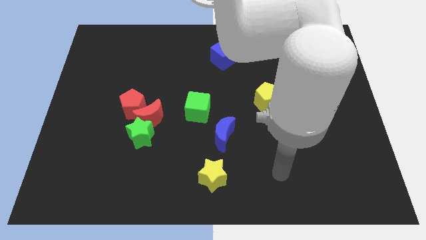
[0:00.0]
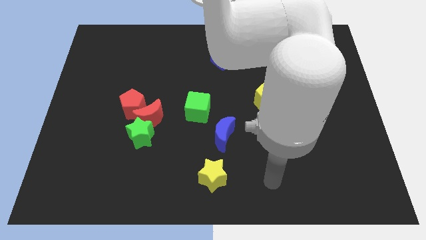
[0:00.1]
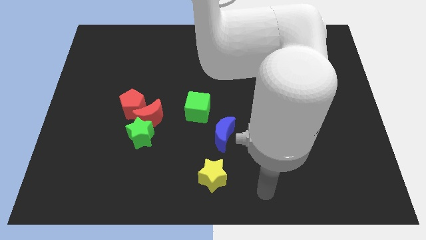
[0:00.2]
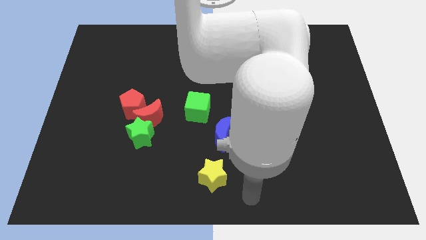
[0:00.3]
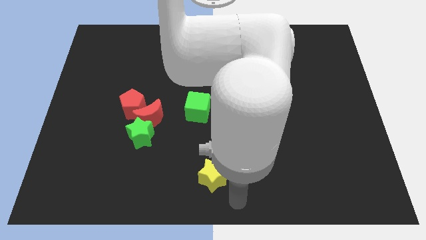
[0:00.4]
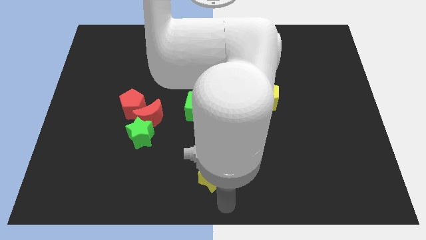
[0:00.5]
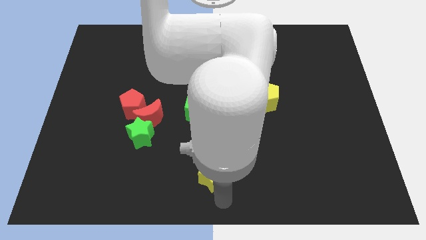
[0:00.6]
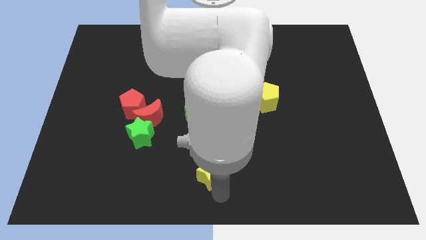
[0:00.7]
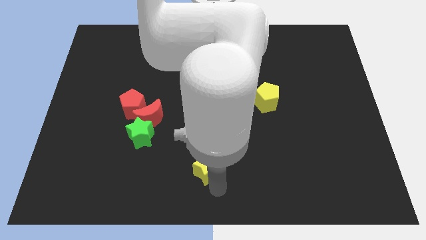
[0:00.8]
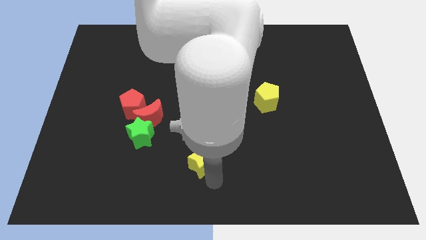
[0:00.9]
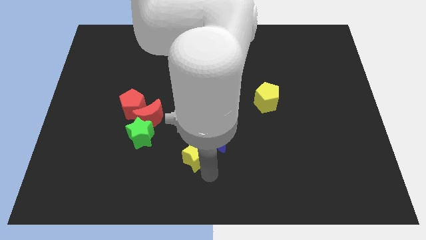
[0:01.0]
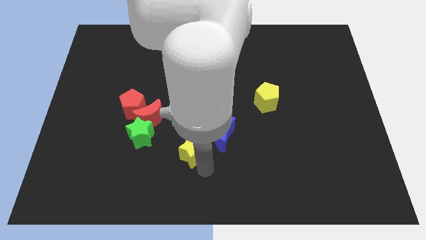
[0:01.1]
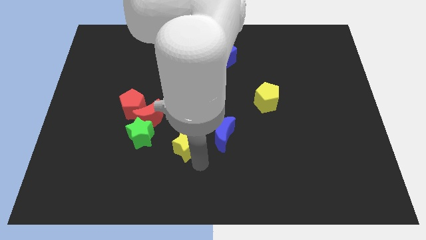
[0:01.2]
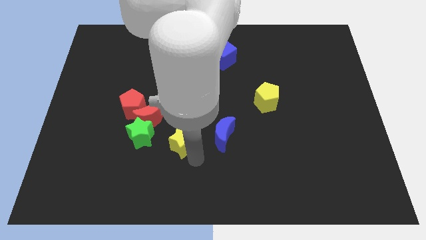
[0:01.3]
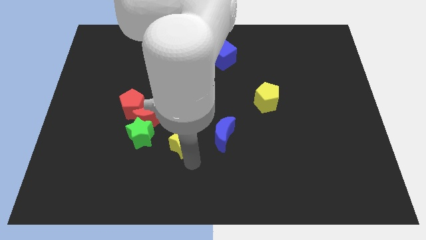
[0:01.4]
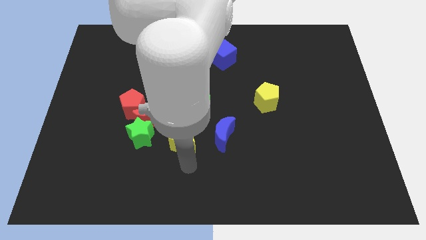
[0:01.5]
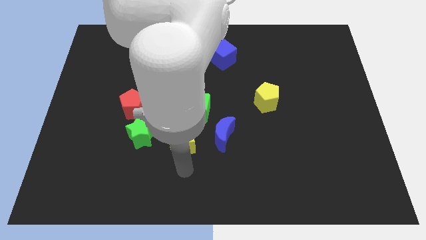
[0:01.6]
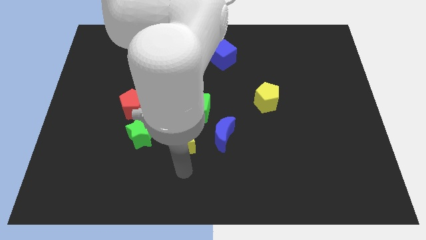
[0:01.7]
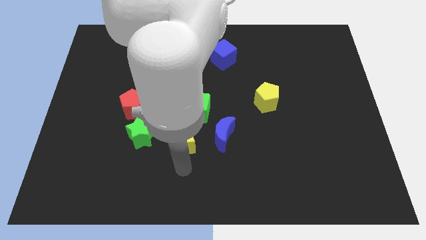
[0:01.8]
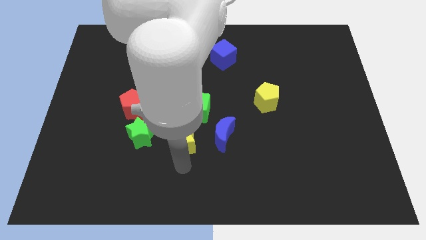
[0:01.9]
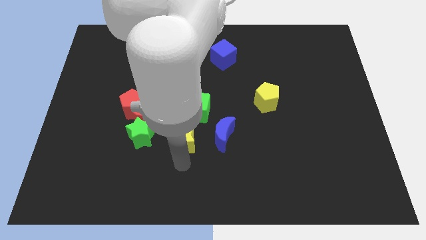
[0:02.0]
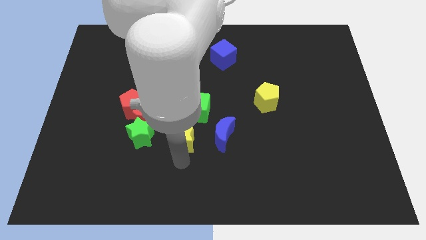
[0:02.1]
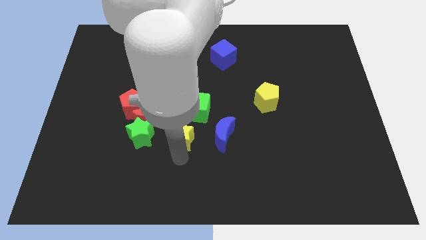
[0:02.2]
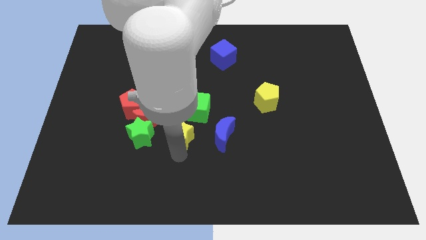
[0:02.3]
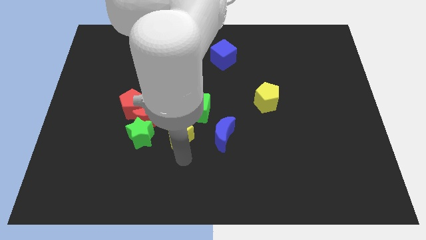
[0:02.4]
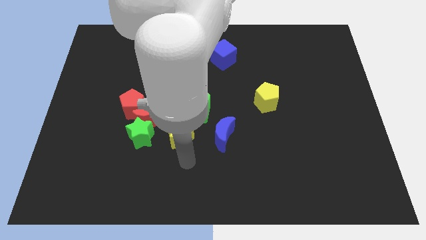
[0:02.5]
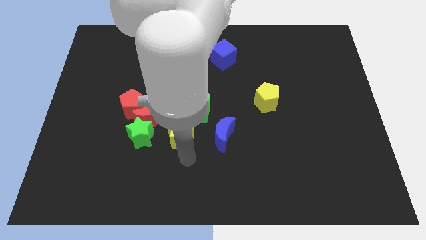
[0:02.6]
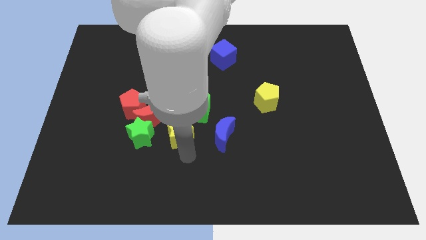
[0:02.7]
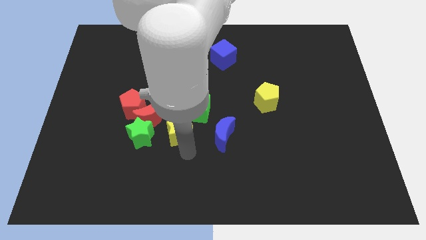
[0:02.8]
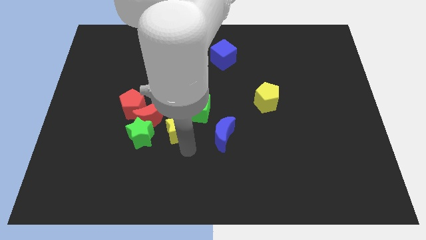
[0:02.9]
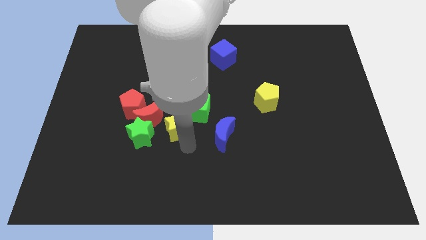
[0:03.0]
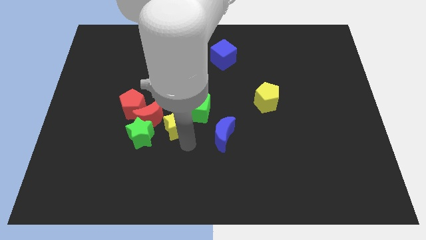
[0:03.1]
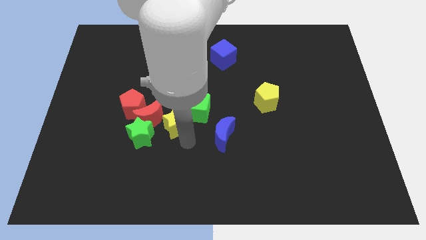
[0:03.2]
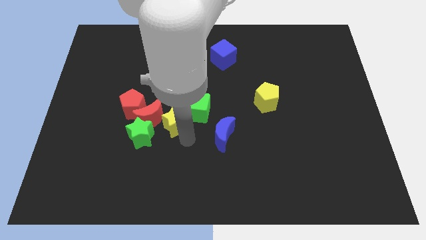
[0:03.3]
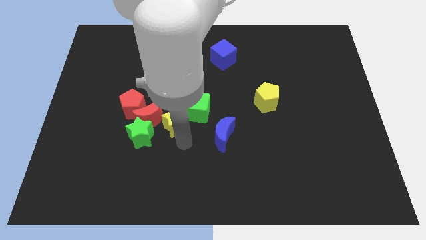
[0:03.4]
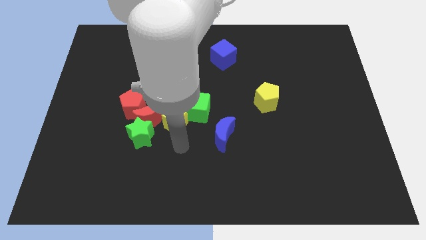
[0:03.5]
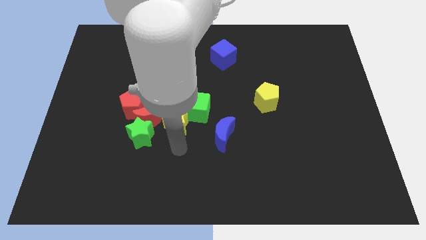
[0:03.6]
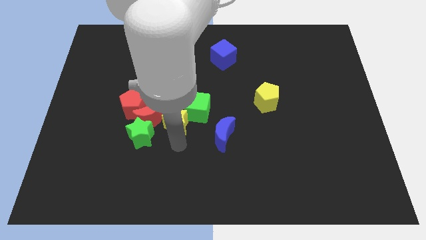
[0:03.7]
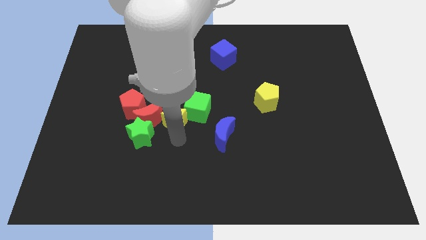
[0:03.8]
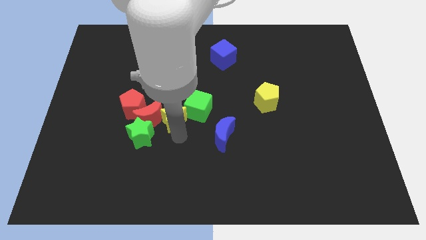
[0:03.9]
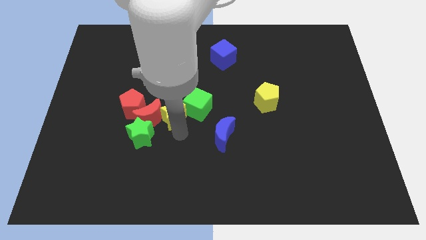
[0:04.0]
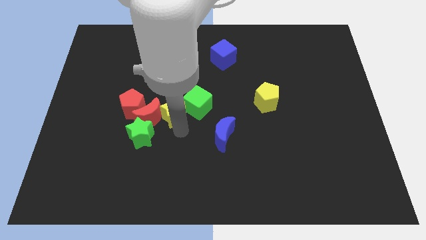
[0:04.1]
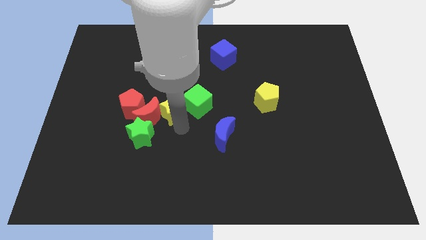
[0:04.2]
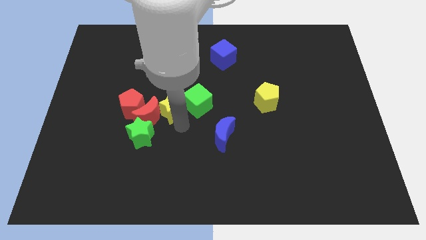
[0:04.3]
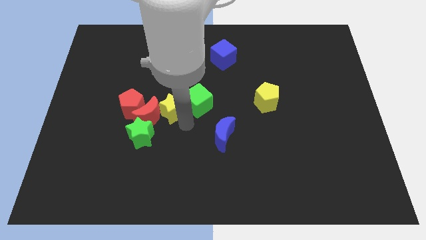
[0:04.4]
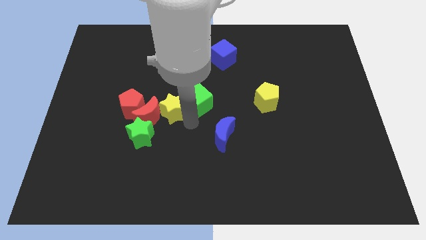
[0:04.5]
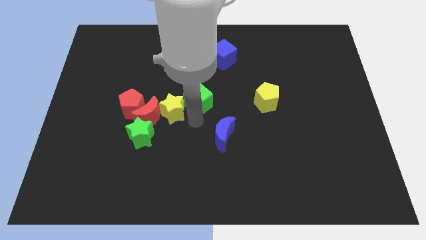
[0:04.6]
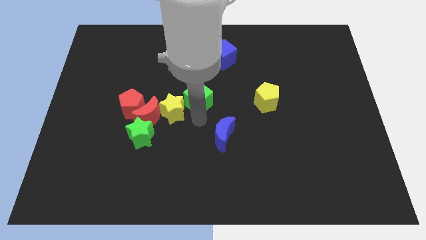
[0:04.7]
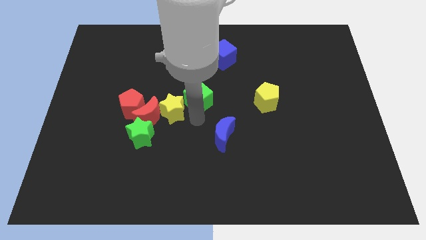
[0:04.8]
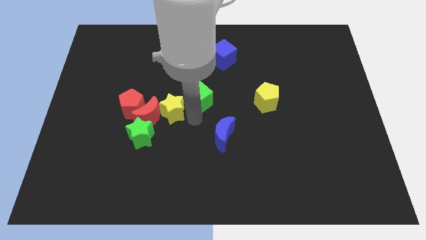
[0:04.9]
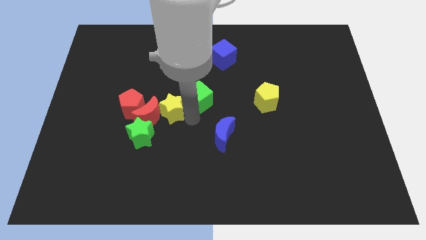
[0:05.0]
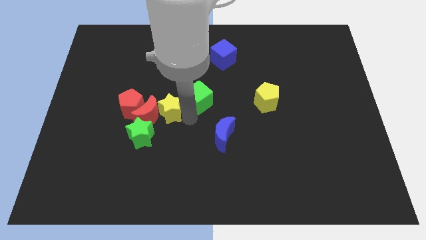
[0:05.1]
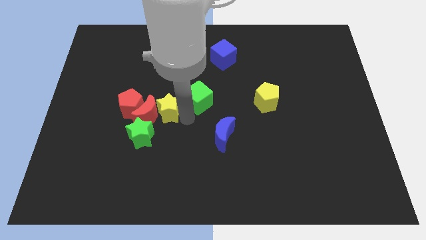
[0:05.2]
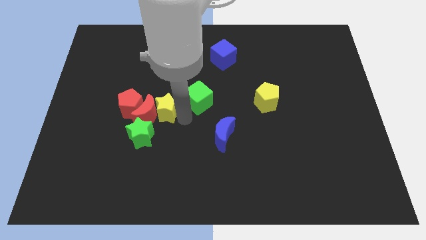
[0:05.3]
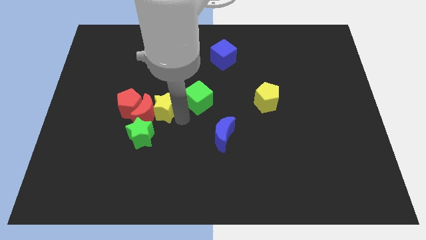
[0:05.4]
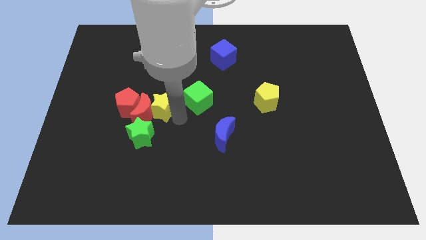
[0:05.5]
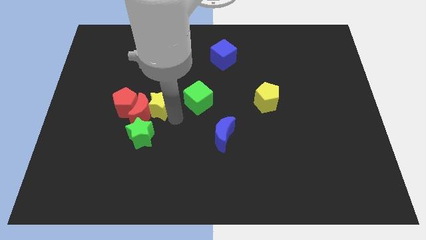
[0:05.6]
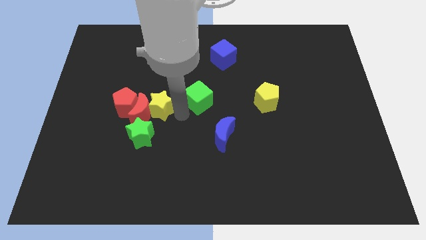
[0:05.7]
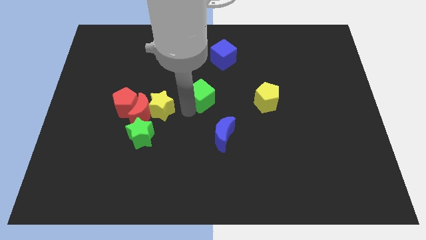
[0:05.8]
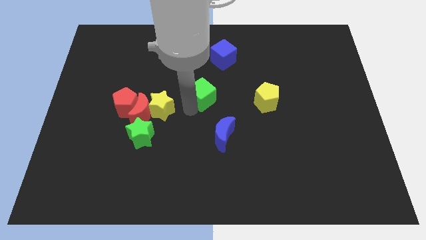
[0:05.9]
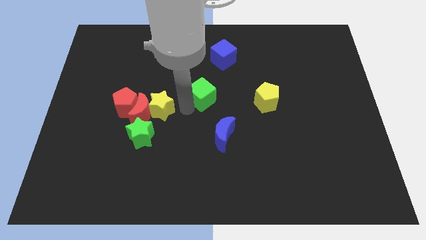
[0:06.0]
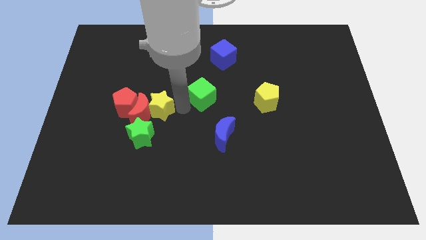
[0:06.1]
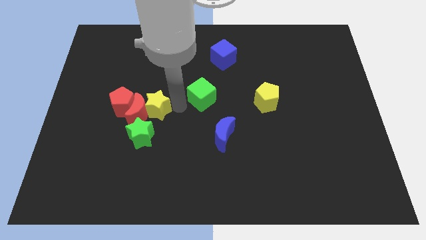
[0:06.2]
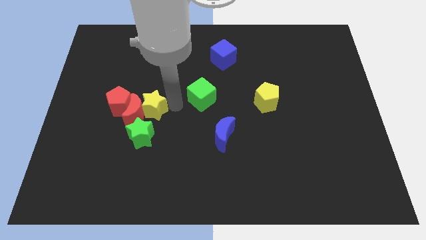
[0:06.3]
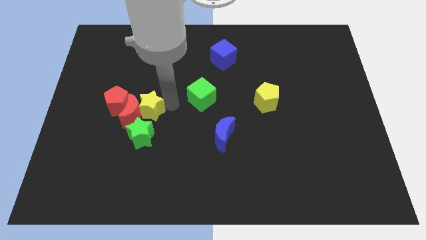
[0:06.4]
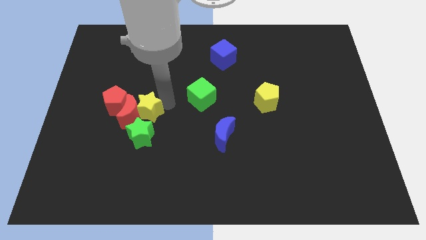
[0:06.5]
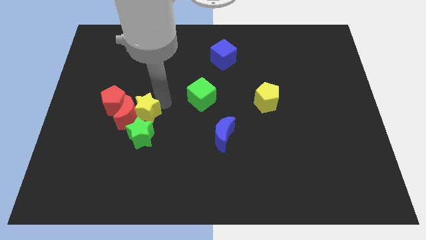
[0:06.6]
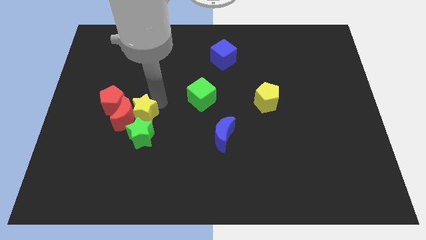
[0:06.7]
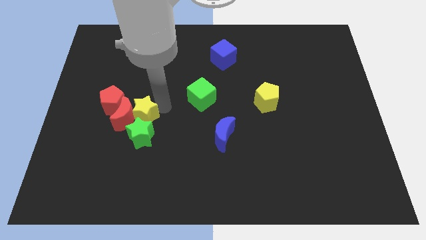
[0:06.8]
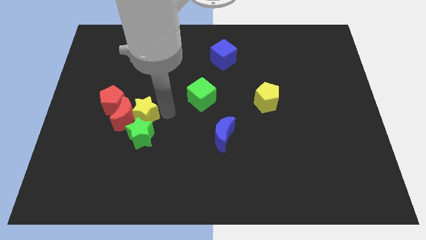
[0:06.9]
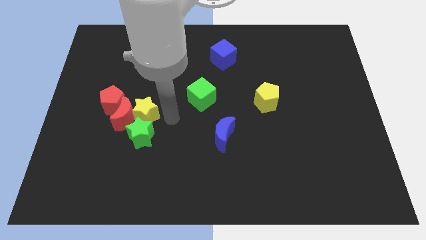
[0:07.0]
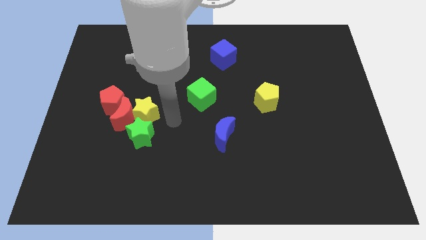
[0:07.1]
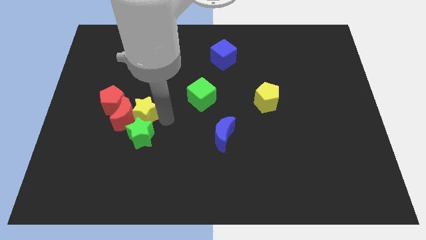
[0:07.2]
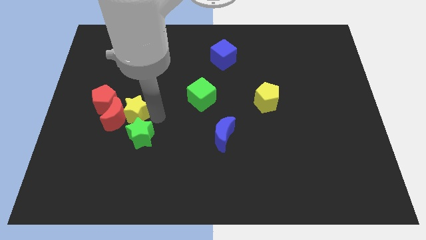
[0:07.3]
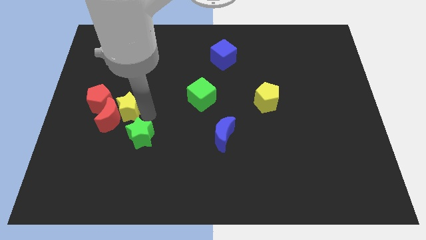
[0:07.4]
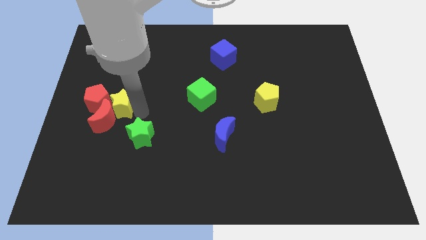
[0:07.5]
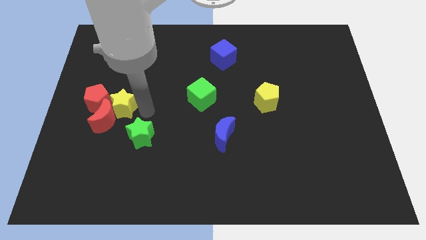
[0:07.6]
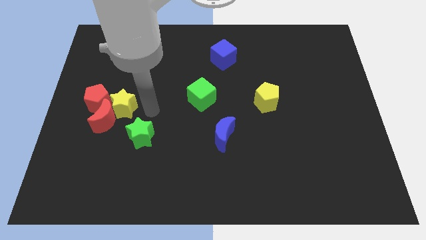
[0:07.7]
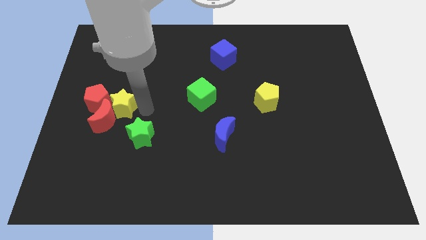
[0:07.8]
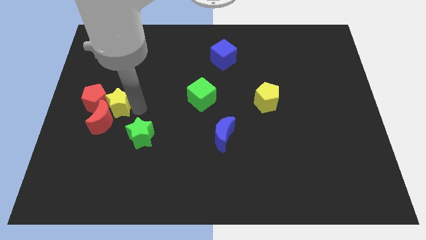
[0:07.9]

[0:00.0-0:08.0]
put the yellow star towards the red pentagon
